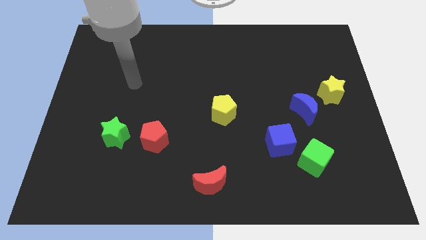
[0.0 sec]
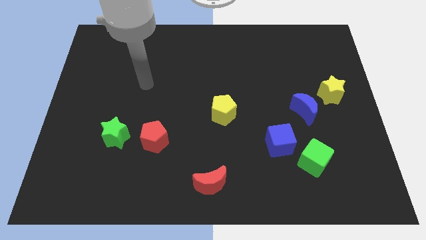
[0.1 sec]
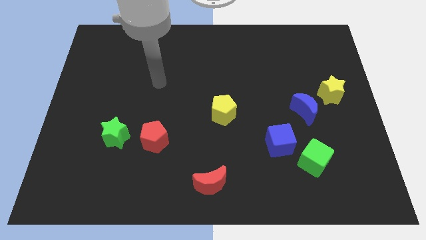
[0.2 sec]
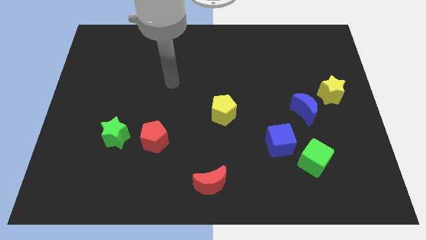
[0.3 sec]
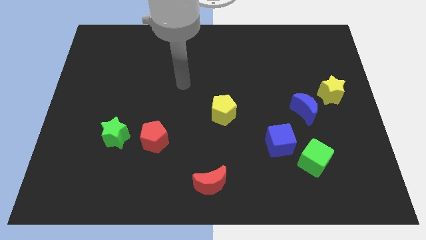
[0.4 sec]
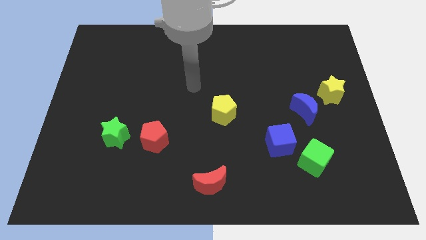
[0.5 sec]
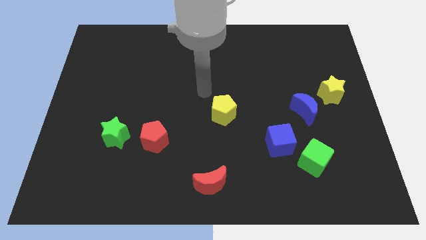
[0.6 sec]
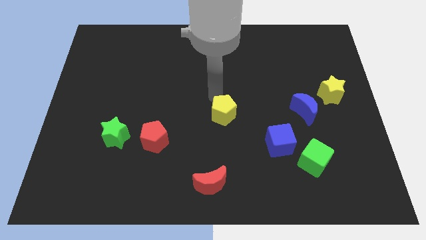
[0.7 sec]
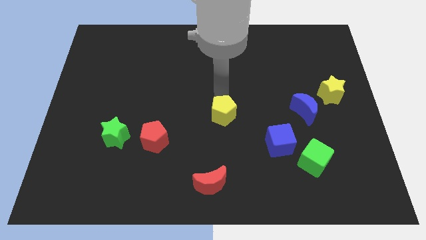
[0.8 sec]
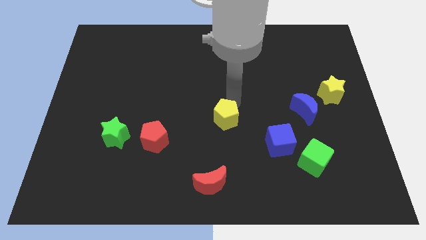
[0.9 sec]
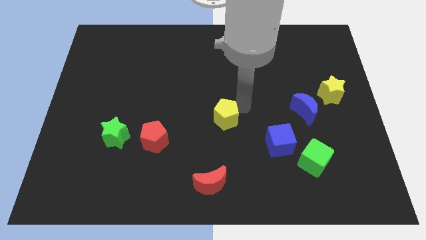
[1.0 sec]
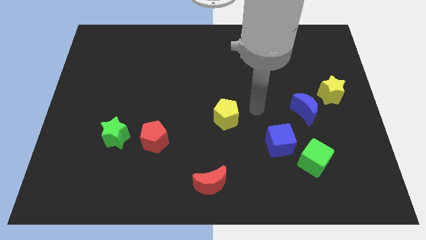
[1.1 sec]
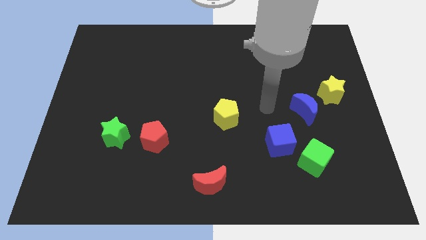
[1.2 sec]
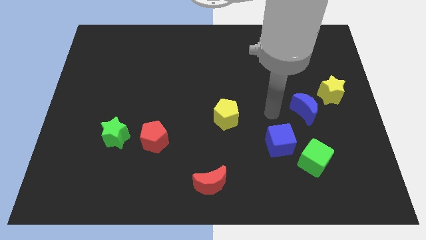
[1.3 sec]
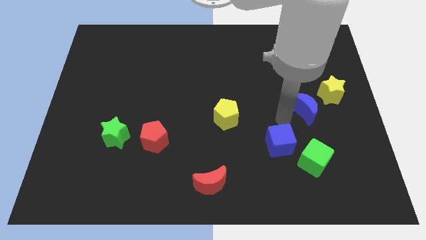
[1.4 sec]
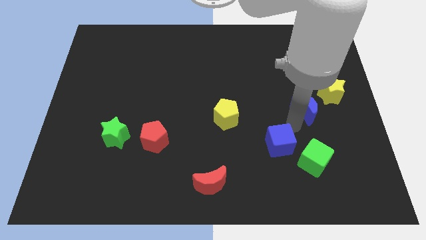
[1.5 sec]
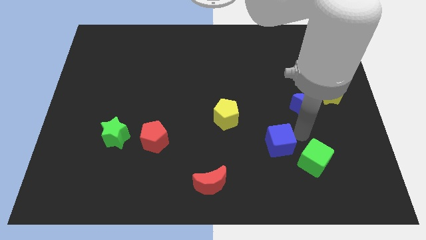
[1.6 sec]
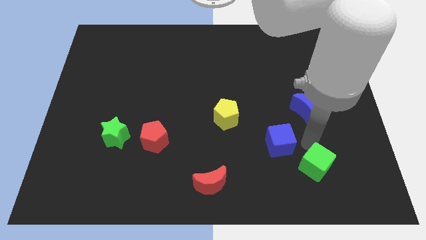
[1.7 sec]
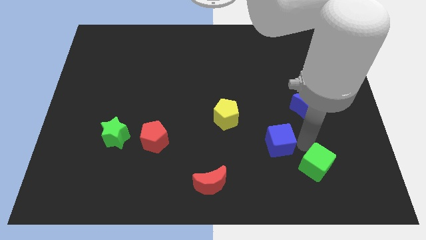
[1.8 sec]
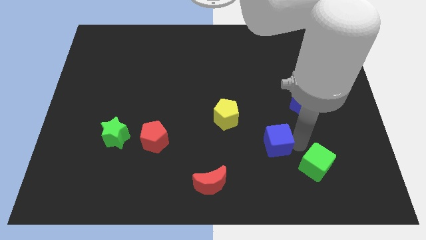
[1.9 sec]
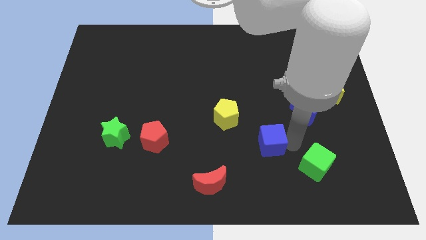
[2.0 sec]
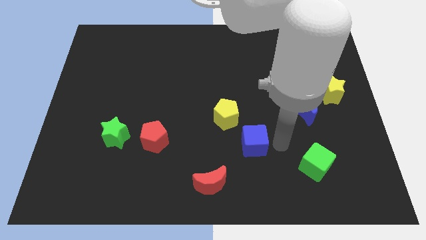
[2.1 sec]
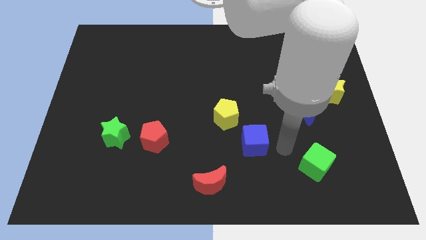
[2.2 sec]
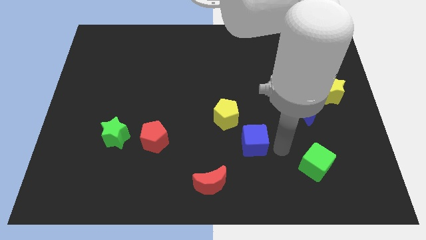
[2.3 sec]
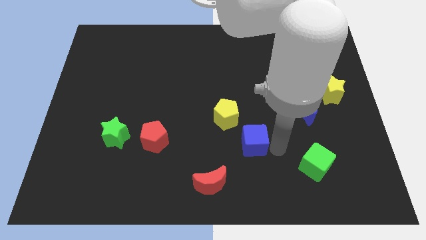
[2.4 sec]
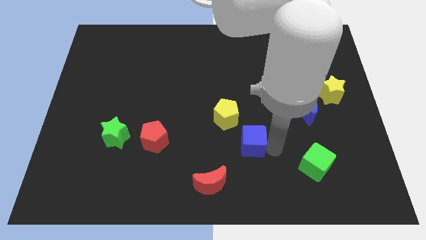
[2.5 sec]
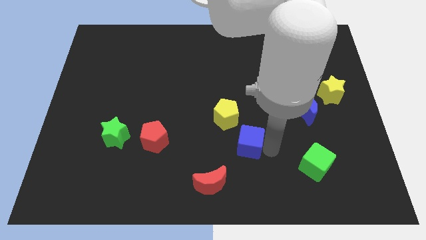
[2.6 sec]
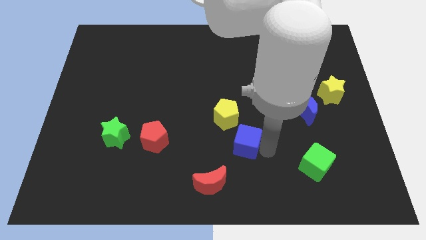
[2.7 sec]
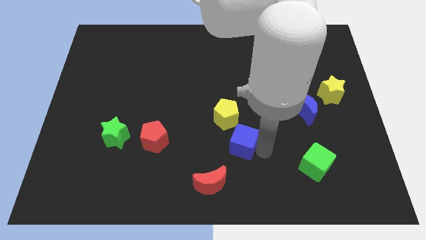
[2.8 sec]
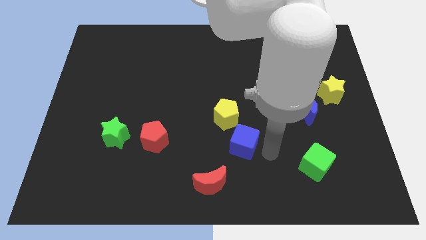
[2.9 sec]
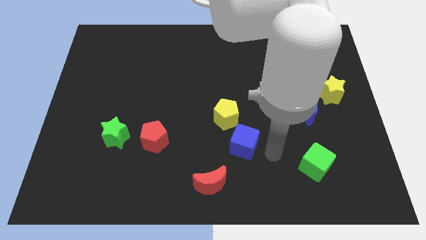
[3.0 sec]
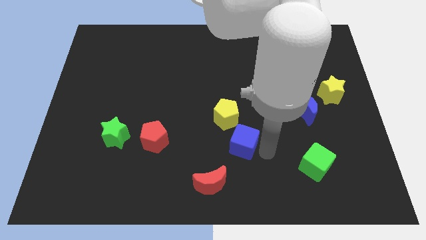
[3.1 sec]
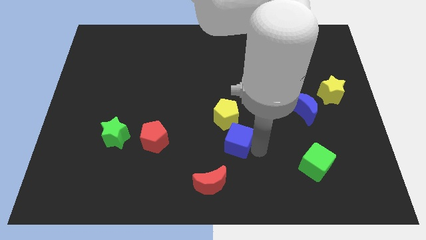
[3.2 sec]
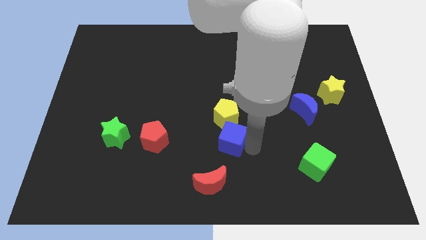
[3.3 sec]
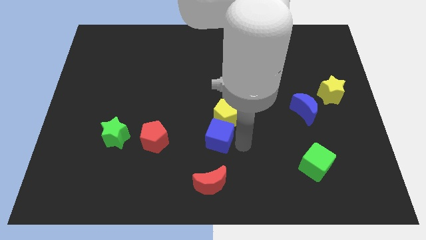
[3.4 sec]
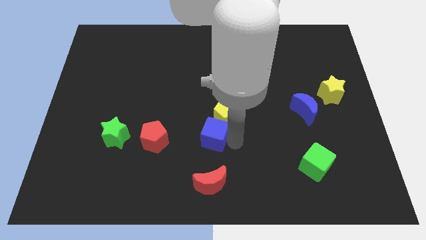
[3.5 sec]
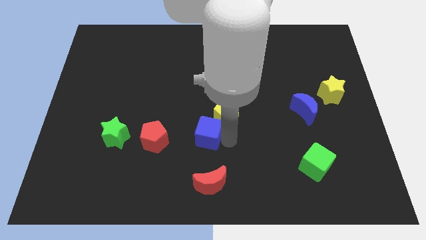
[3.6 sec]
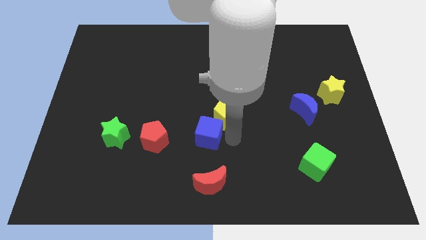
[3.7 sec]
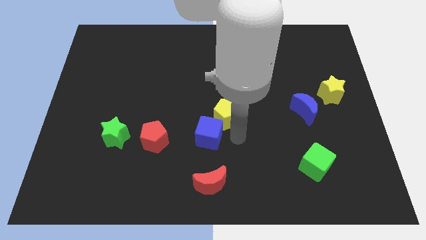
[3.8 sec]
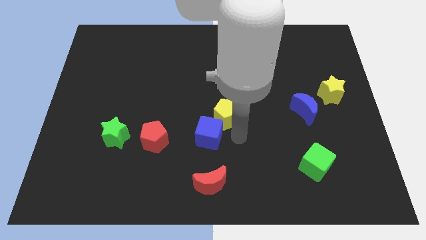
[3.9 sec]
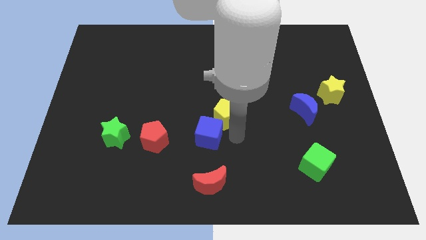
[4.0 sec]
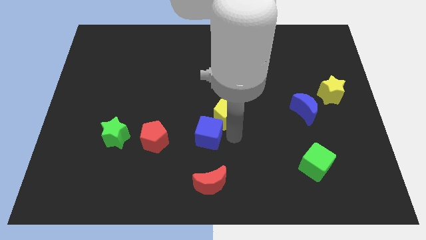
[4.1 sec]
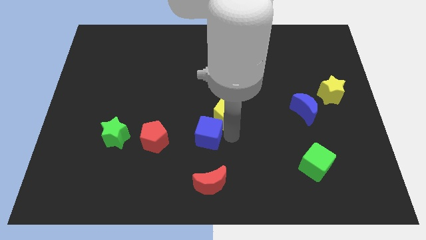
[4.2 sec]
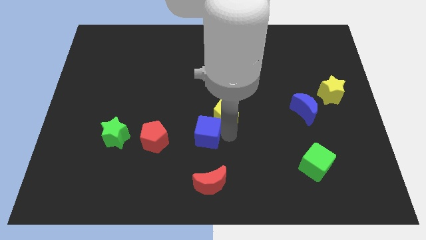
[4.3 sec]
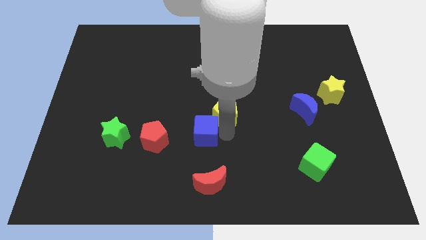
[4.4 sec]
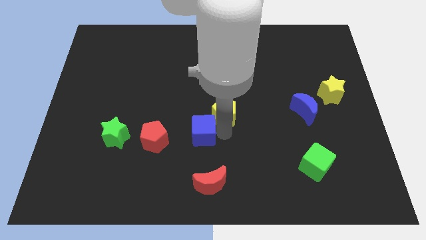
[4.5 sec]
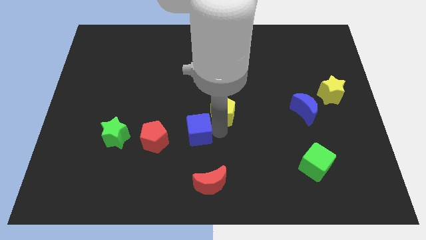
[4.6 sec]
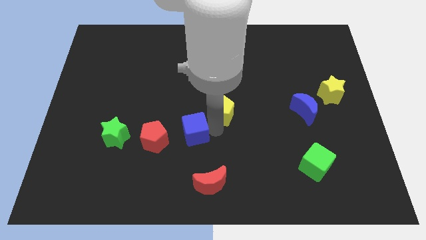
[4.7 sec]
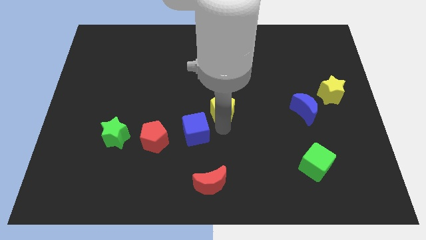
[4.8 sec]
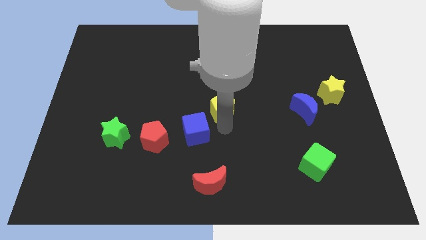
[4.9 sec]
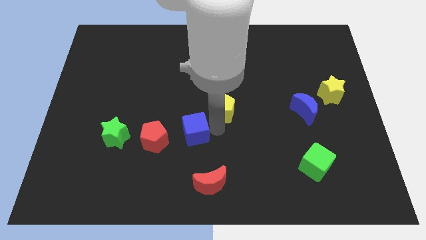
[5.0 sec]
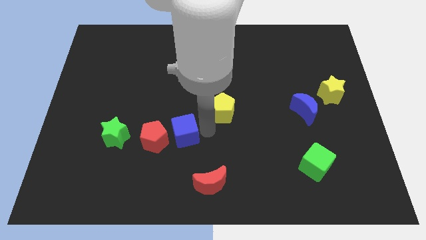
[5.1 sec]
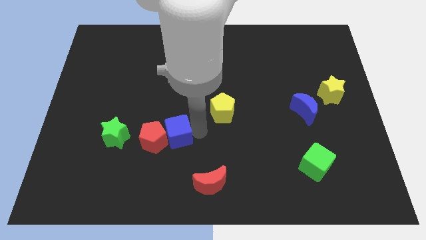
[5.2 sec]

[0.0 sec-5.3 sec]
slide the blue cube next to the red pentagon

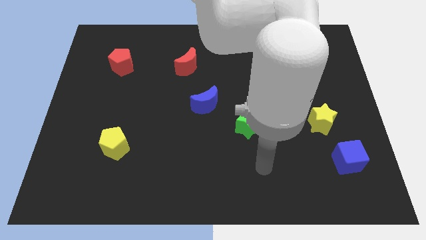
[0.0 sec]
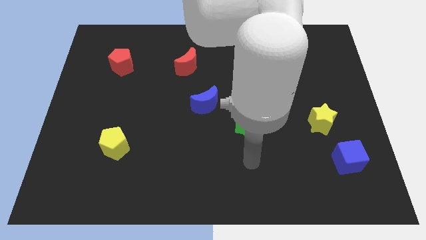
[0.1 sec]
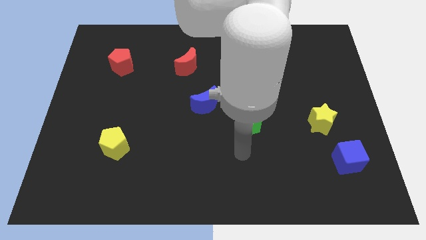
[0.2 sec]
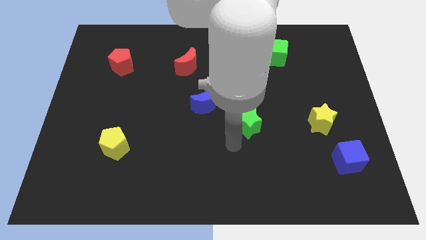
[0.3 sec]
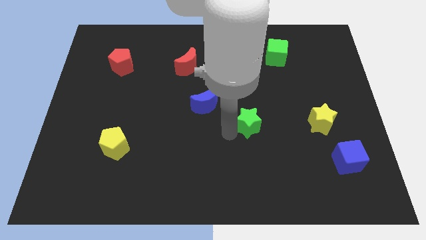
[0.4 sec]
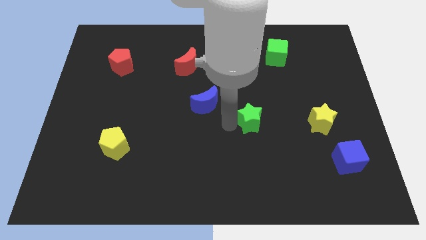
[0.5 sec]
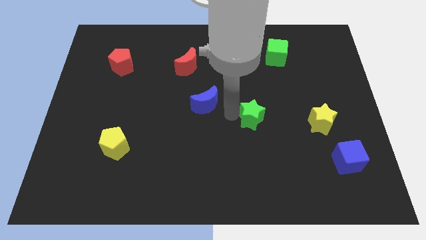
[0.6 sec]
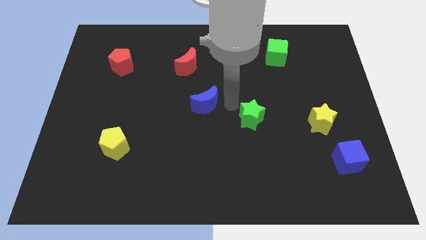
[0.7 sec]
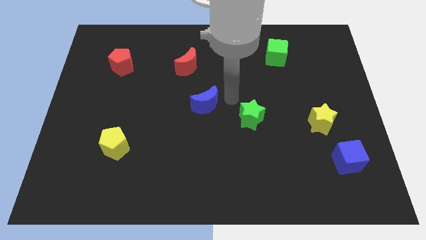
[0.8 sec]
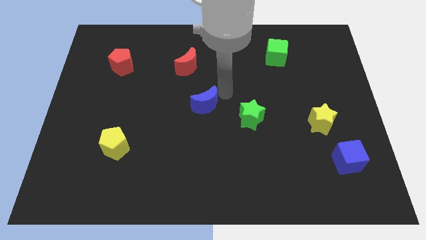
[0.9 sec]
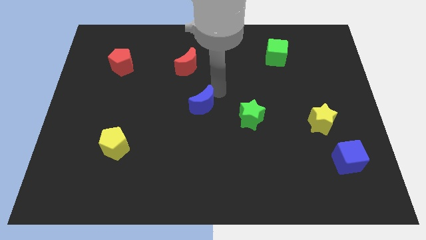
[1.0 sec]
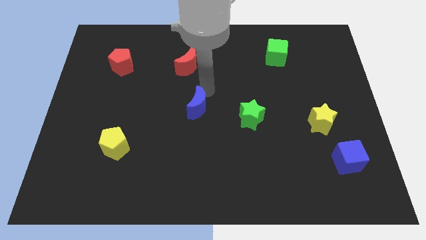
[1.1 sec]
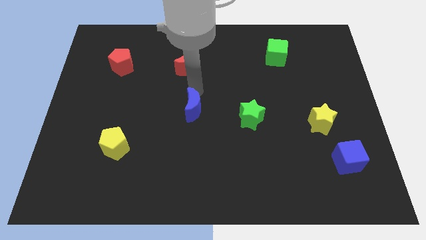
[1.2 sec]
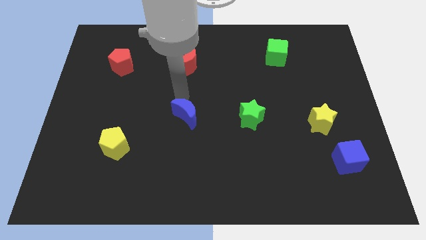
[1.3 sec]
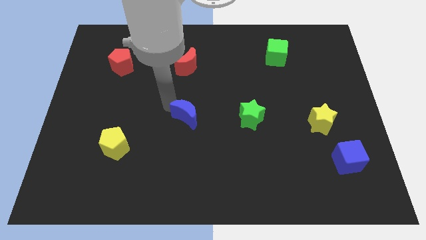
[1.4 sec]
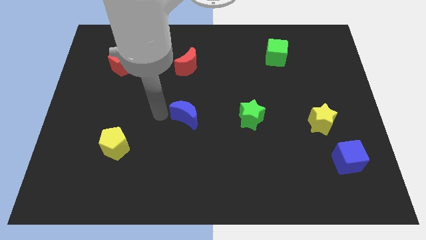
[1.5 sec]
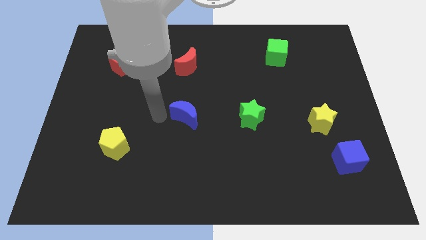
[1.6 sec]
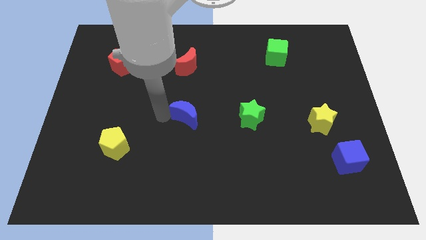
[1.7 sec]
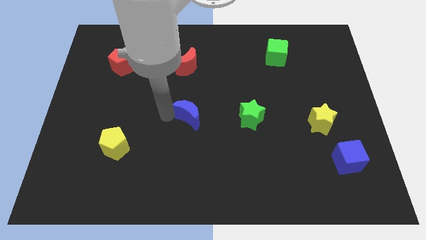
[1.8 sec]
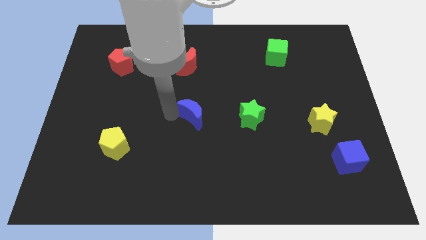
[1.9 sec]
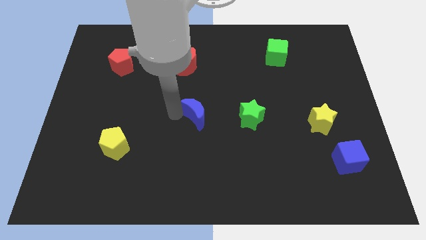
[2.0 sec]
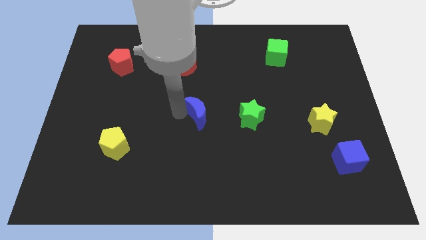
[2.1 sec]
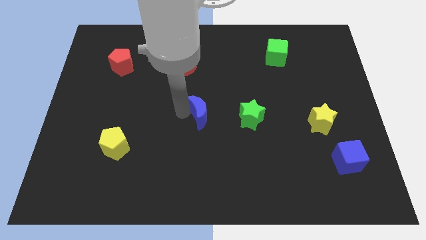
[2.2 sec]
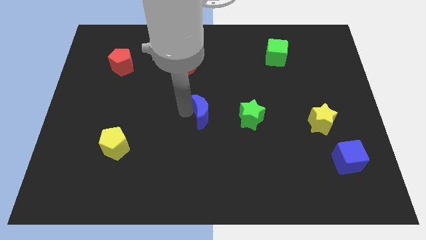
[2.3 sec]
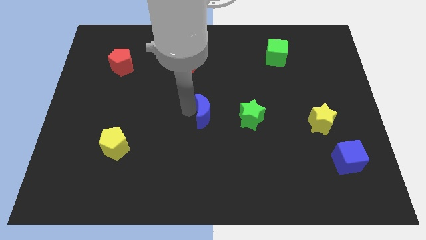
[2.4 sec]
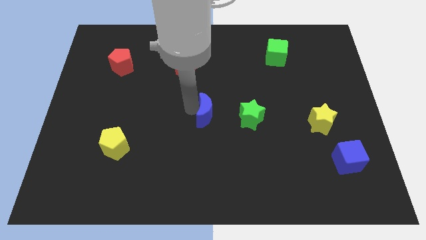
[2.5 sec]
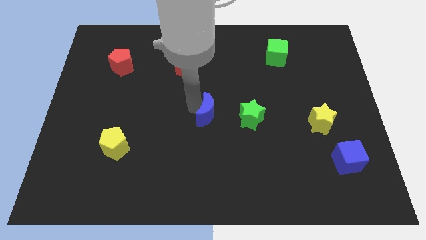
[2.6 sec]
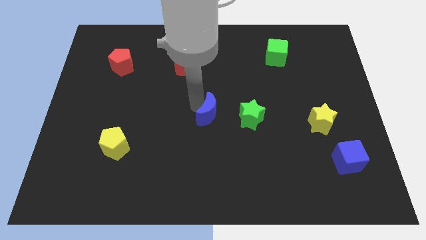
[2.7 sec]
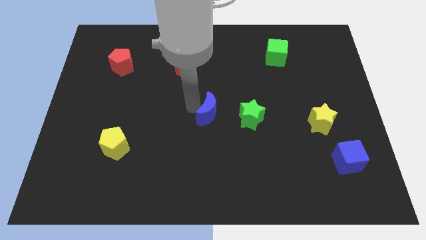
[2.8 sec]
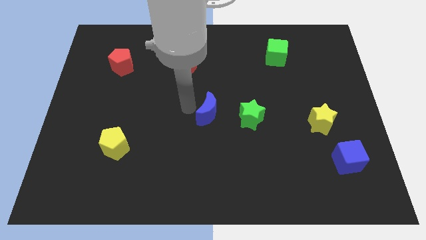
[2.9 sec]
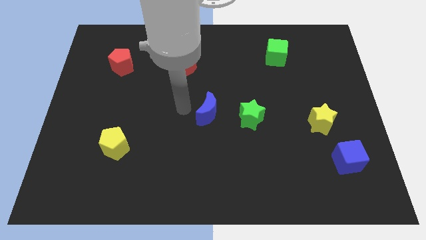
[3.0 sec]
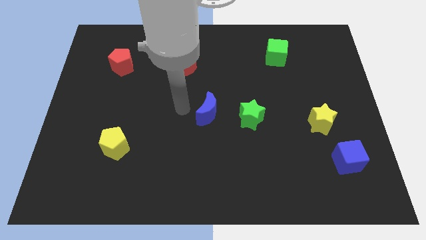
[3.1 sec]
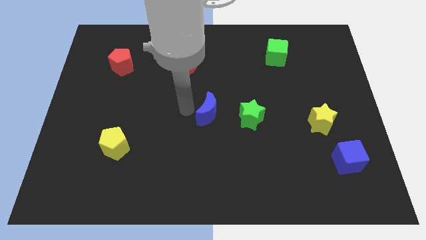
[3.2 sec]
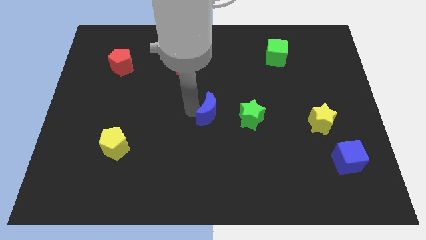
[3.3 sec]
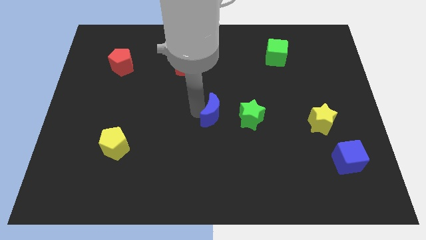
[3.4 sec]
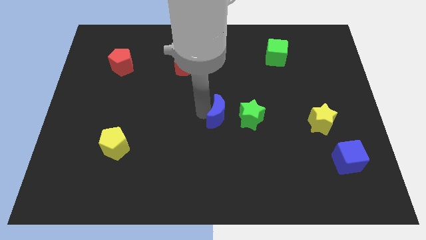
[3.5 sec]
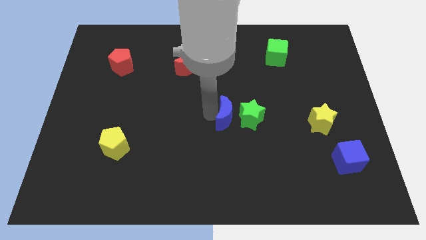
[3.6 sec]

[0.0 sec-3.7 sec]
put the blue moon towards the green star
